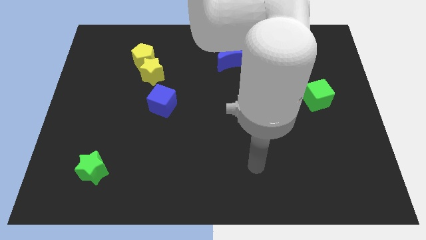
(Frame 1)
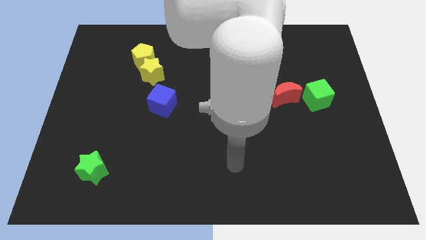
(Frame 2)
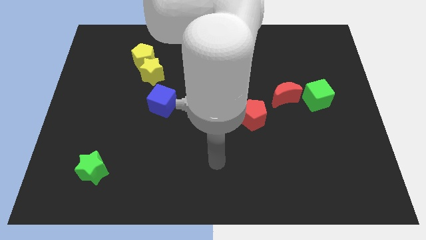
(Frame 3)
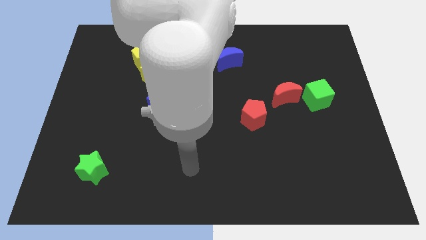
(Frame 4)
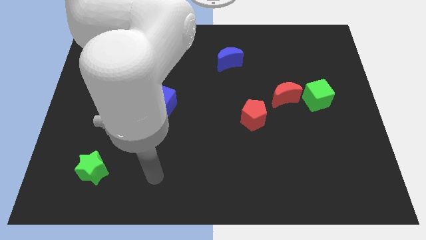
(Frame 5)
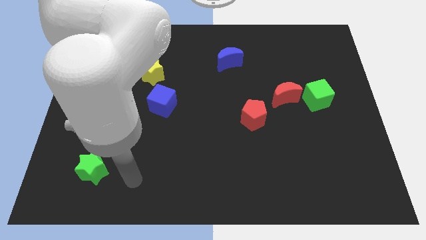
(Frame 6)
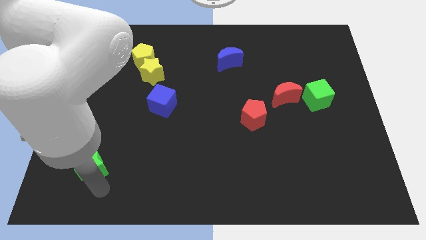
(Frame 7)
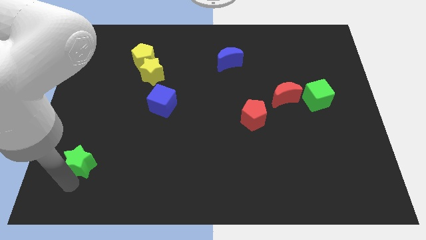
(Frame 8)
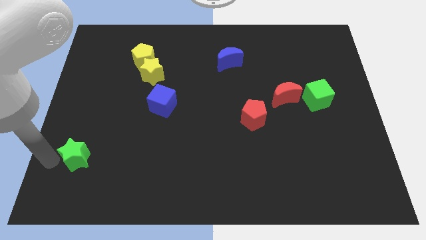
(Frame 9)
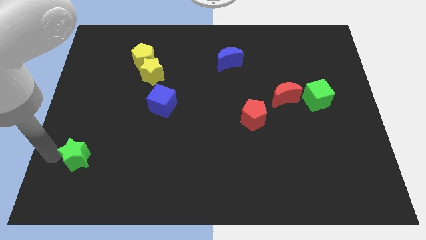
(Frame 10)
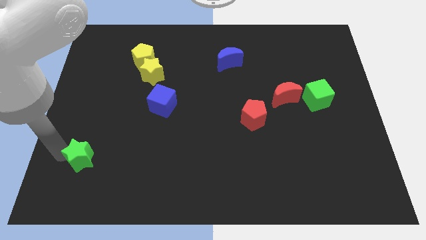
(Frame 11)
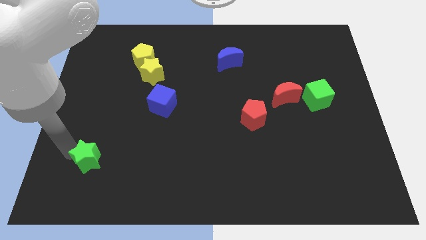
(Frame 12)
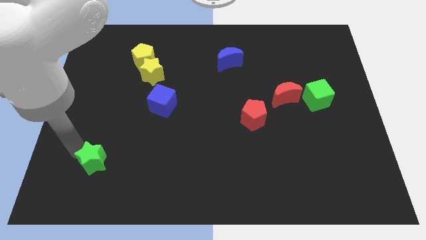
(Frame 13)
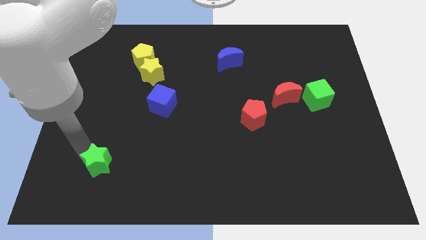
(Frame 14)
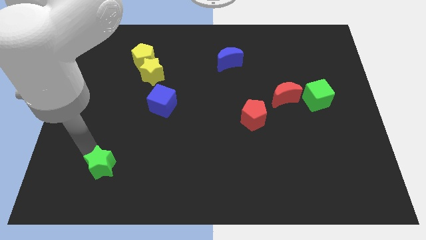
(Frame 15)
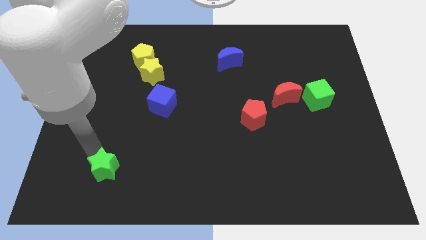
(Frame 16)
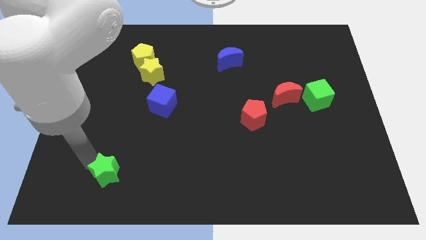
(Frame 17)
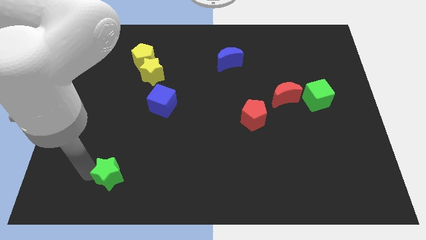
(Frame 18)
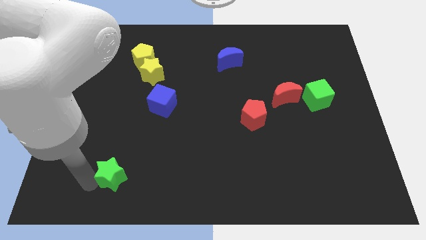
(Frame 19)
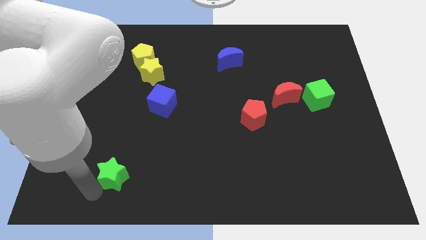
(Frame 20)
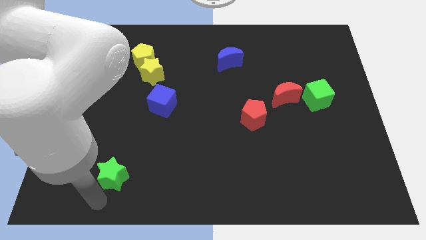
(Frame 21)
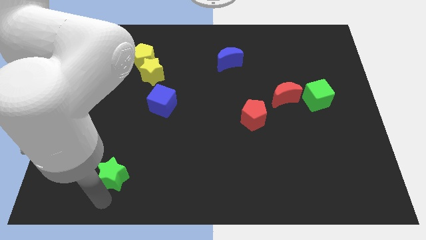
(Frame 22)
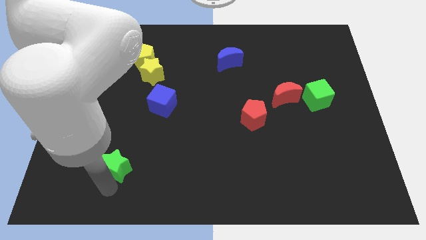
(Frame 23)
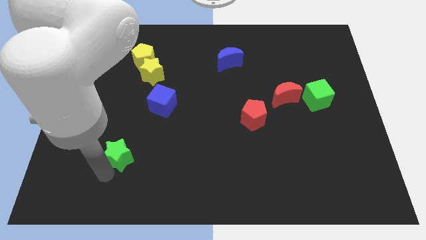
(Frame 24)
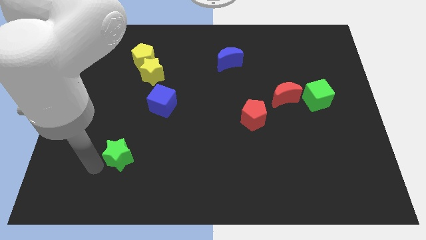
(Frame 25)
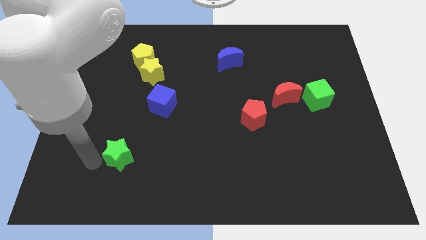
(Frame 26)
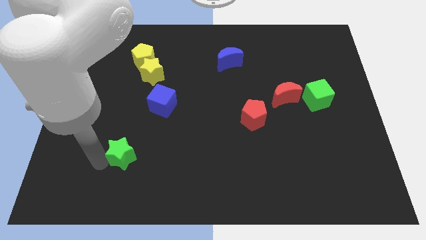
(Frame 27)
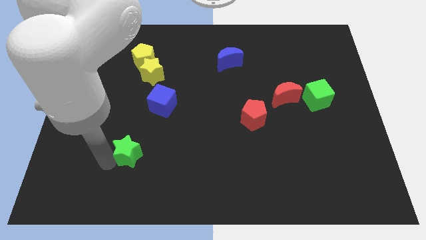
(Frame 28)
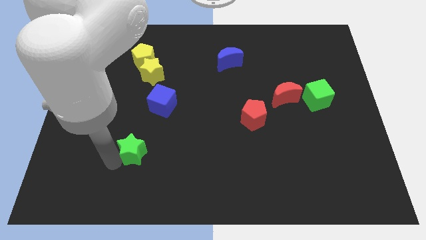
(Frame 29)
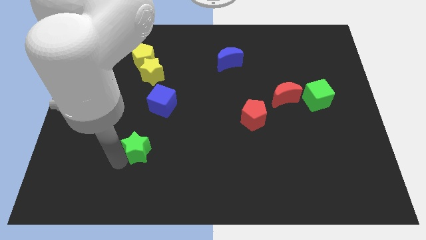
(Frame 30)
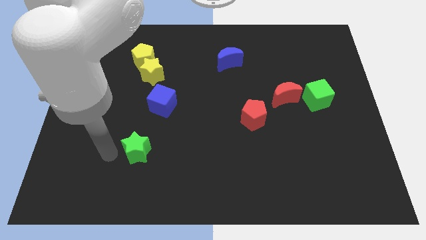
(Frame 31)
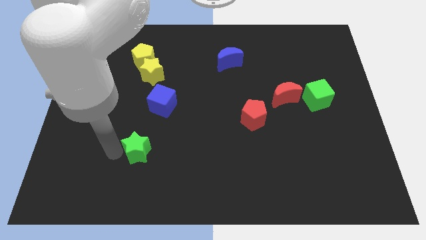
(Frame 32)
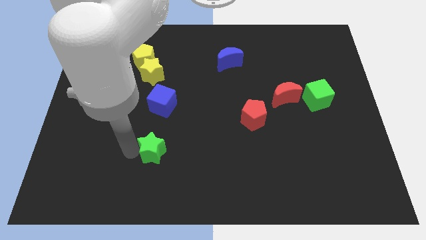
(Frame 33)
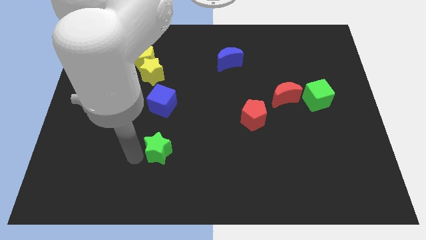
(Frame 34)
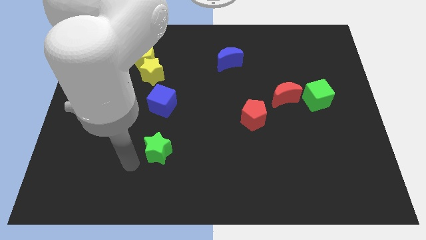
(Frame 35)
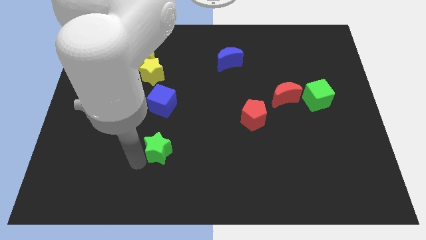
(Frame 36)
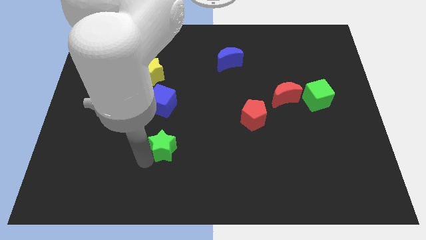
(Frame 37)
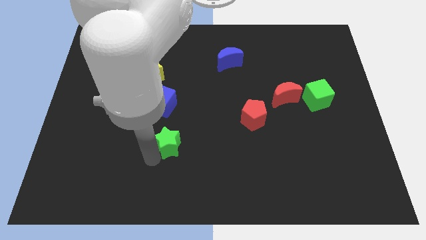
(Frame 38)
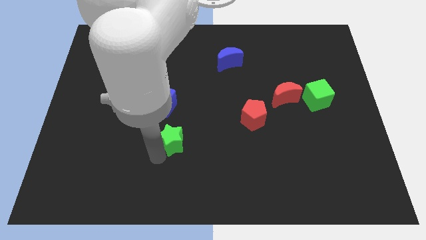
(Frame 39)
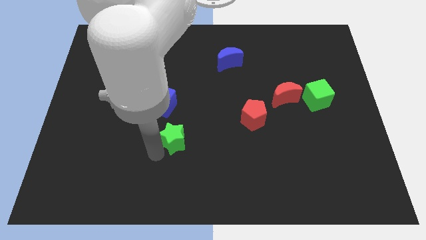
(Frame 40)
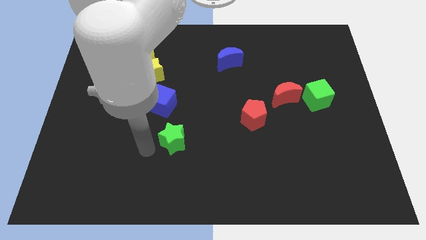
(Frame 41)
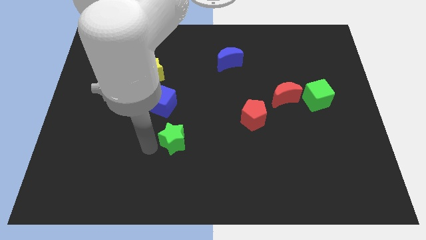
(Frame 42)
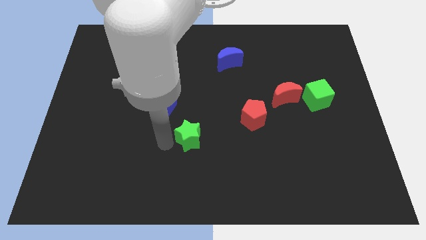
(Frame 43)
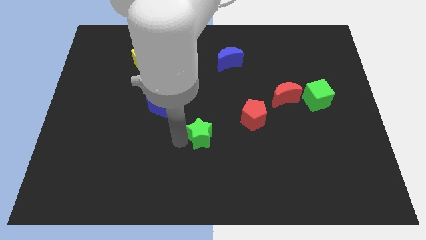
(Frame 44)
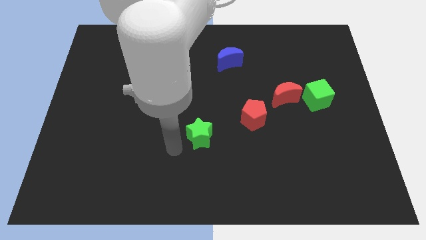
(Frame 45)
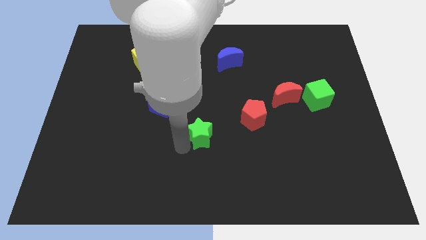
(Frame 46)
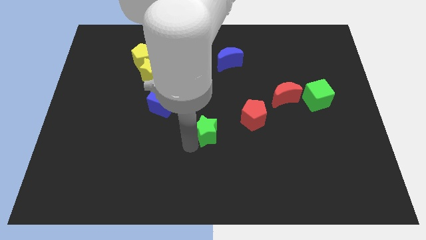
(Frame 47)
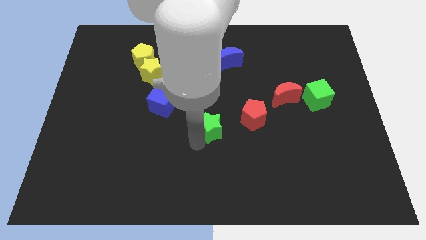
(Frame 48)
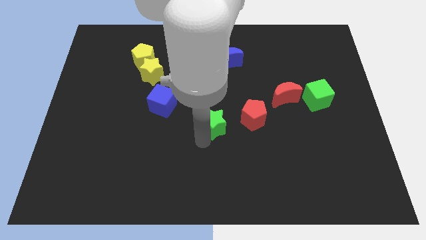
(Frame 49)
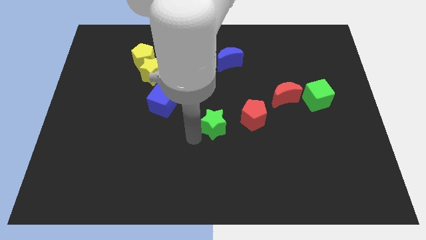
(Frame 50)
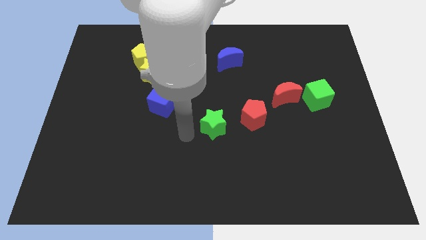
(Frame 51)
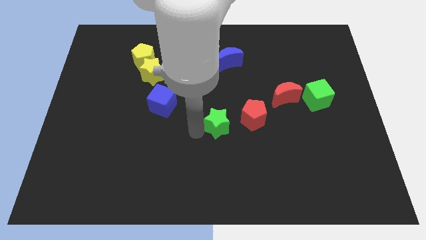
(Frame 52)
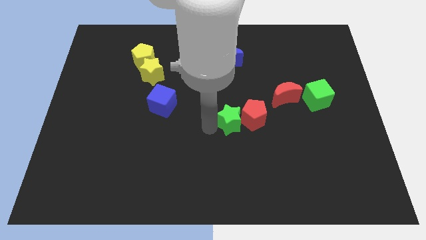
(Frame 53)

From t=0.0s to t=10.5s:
push the green star close to the red pentagon

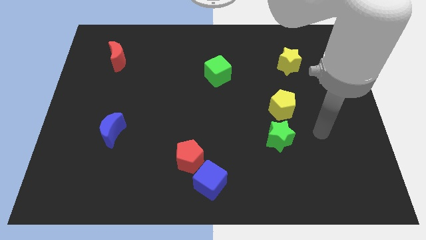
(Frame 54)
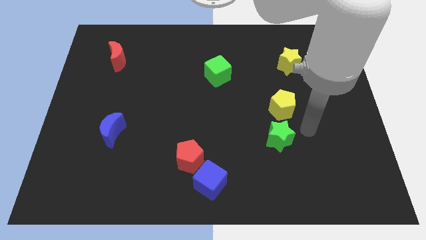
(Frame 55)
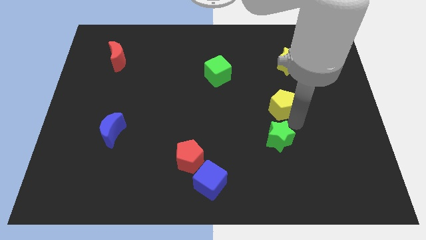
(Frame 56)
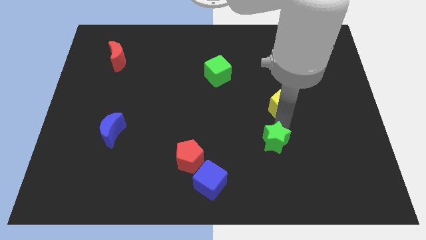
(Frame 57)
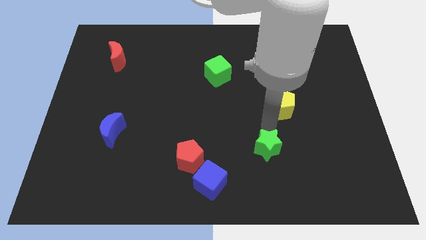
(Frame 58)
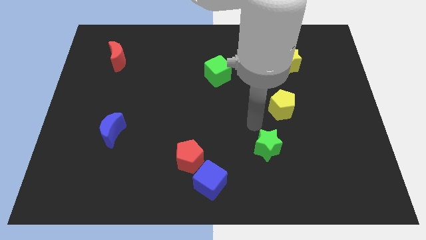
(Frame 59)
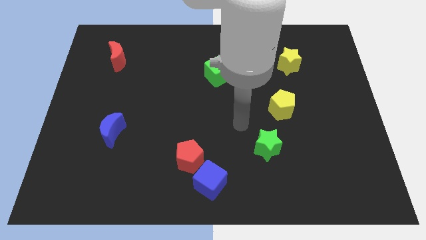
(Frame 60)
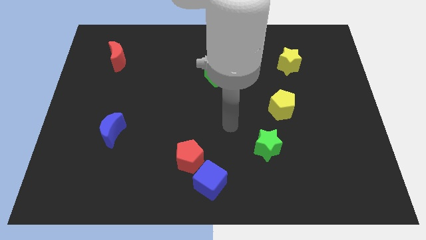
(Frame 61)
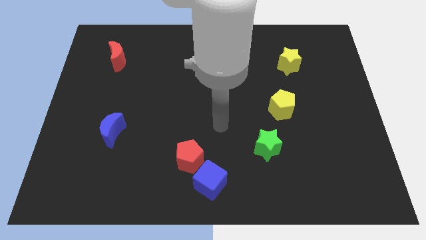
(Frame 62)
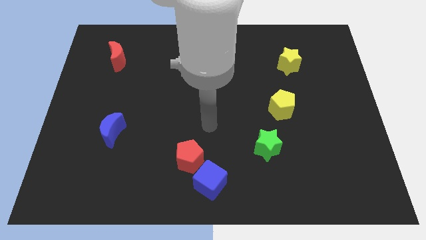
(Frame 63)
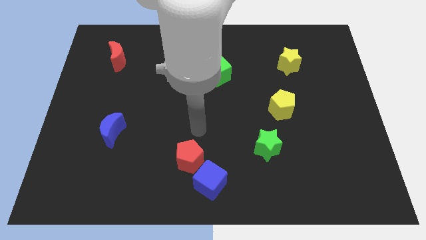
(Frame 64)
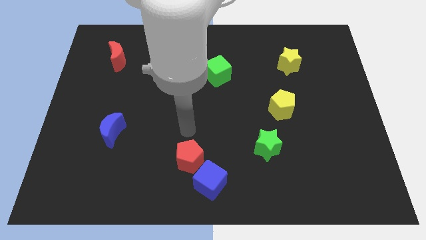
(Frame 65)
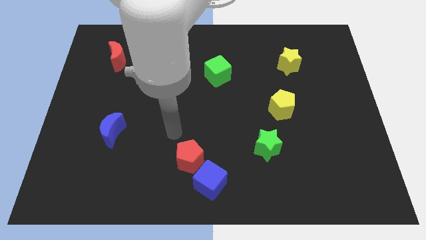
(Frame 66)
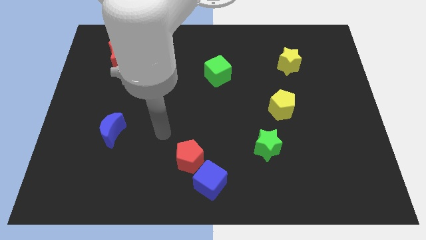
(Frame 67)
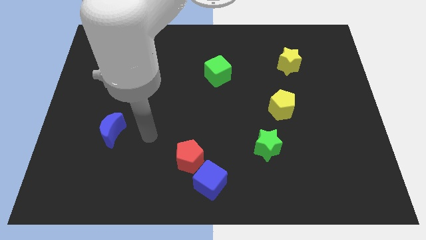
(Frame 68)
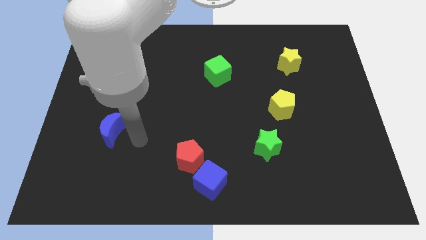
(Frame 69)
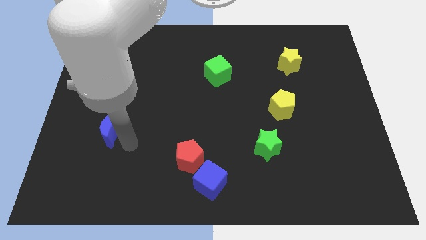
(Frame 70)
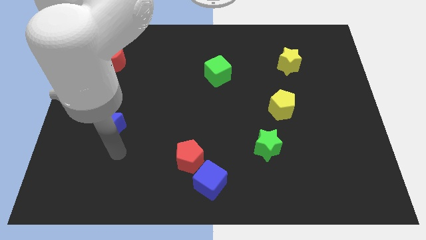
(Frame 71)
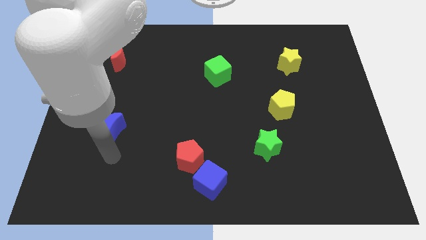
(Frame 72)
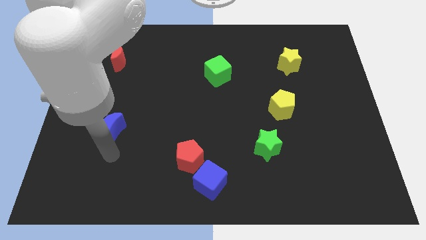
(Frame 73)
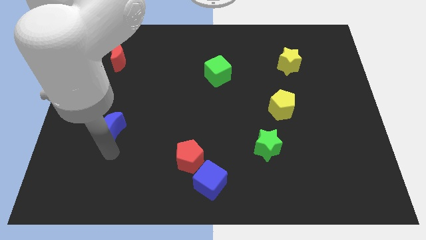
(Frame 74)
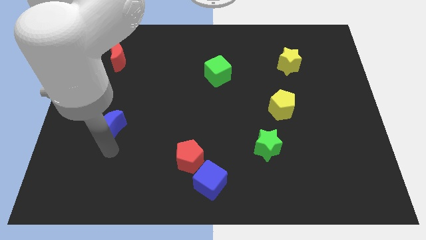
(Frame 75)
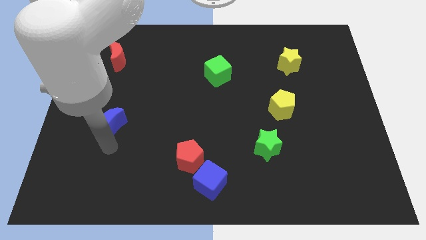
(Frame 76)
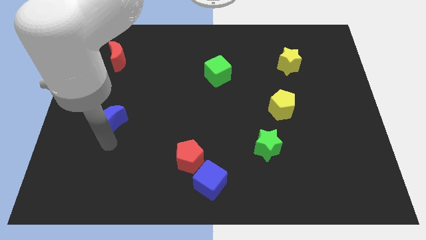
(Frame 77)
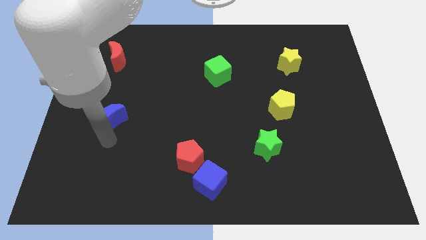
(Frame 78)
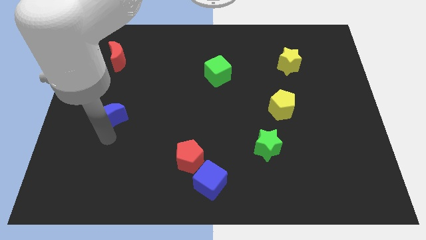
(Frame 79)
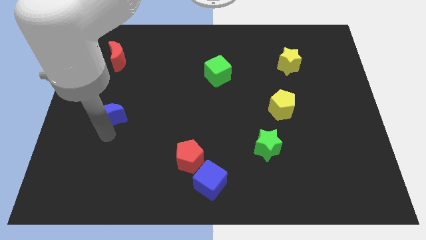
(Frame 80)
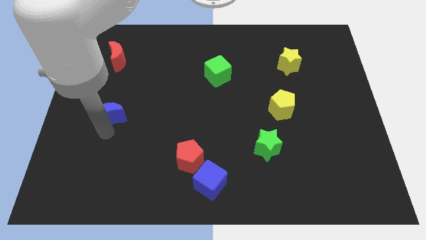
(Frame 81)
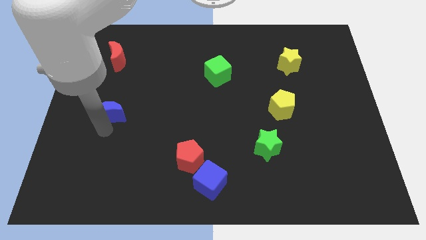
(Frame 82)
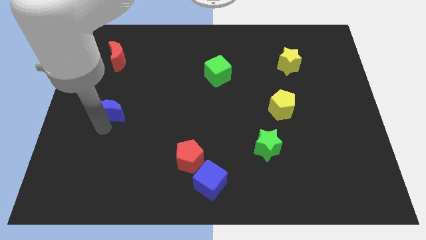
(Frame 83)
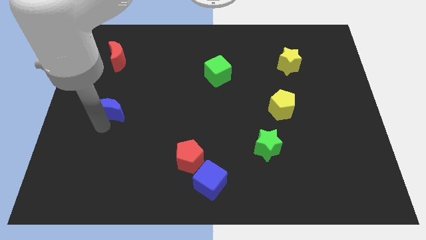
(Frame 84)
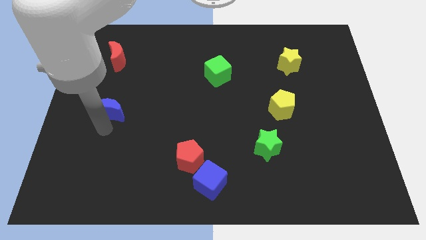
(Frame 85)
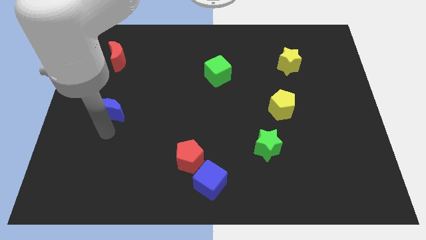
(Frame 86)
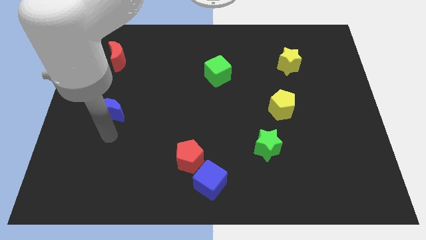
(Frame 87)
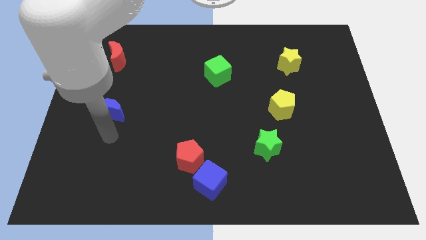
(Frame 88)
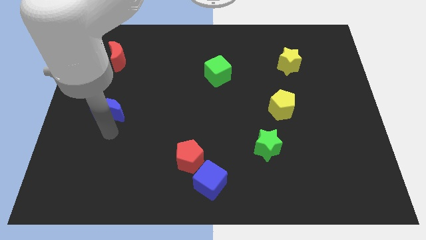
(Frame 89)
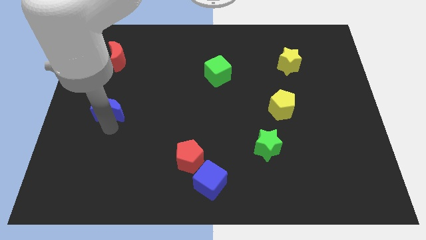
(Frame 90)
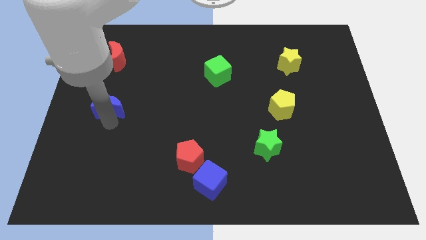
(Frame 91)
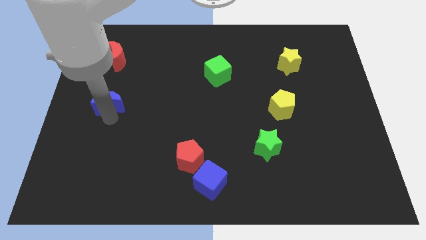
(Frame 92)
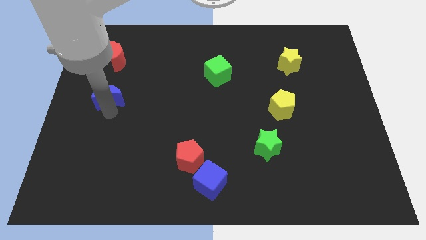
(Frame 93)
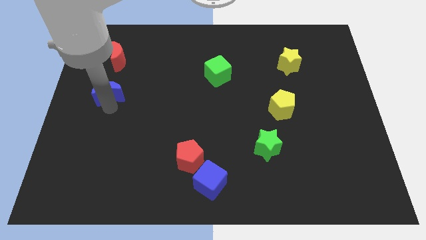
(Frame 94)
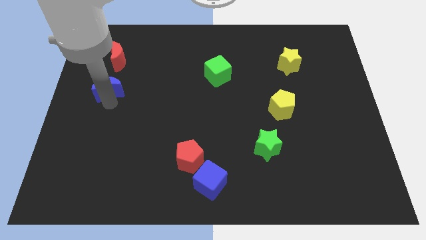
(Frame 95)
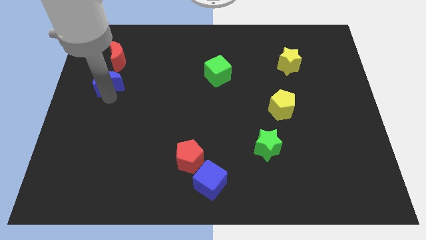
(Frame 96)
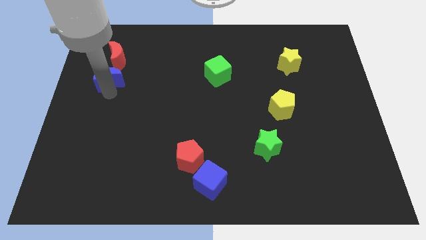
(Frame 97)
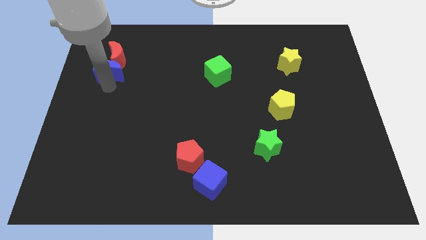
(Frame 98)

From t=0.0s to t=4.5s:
move the blue moon close to the red moon
